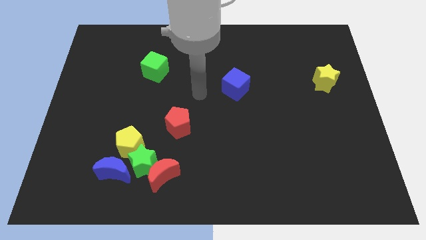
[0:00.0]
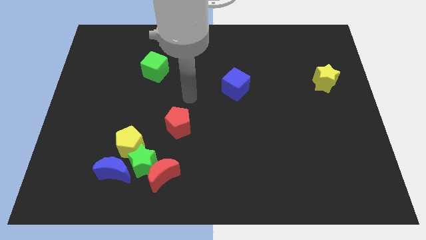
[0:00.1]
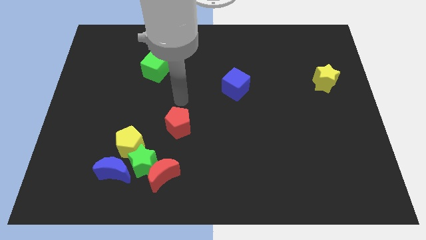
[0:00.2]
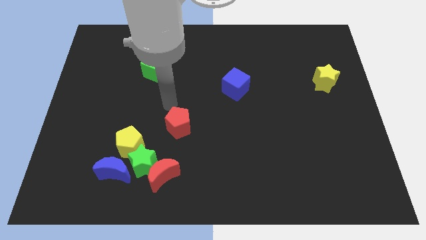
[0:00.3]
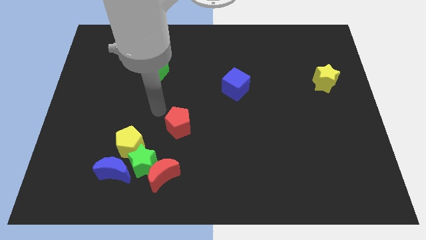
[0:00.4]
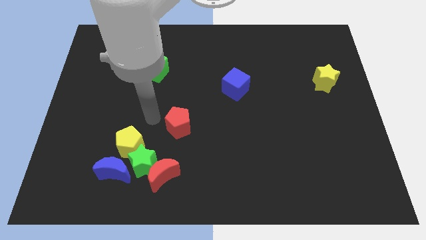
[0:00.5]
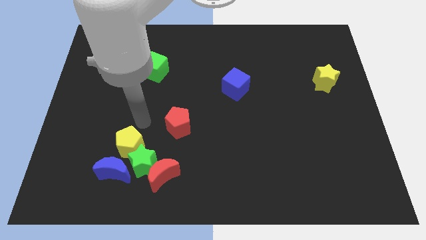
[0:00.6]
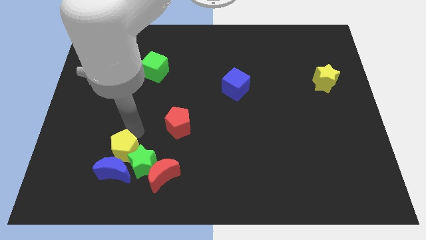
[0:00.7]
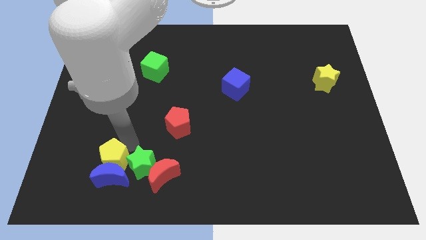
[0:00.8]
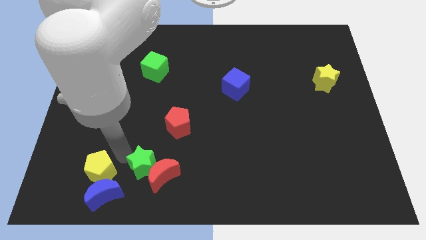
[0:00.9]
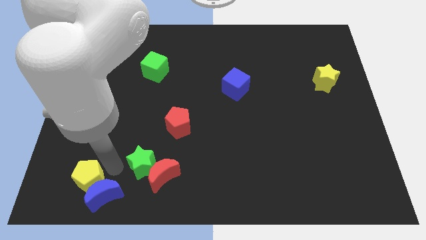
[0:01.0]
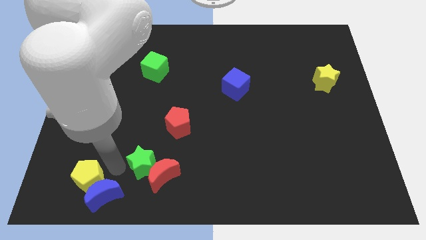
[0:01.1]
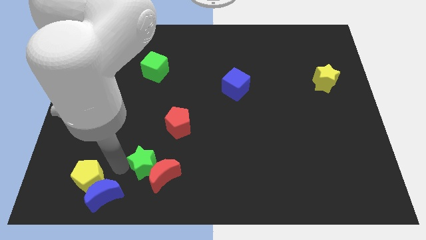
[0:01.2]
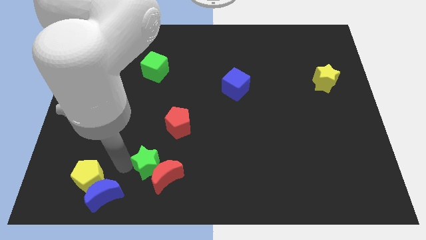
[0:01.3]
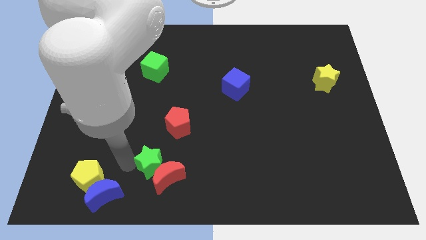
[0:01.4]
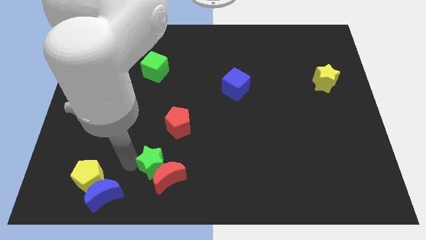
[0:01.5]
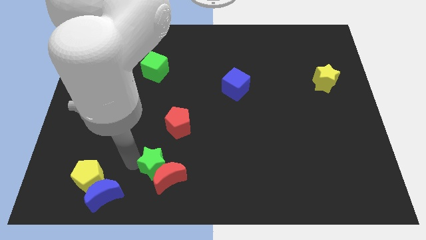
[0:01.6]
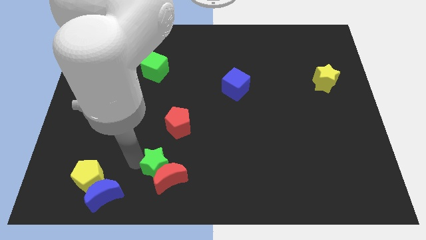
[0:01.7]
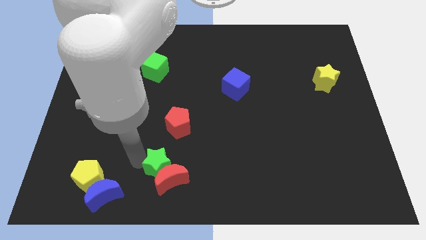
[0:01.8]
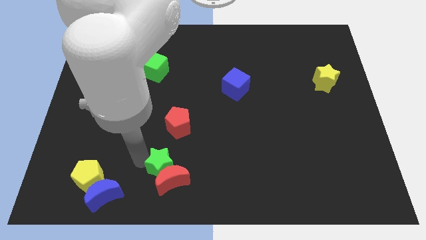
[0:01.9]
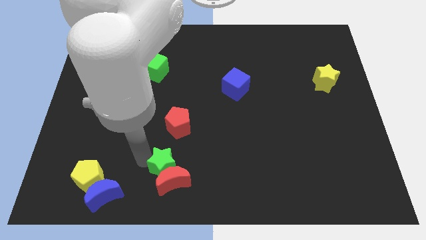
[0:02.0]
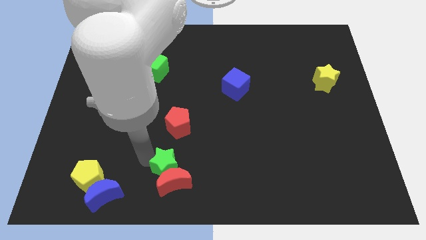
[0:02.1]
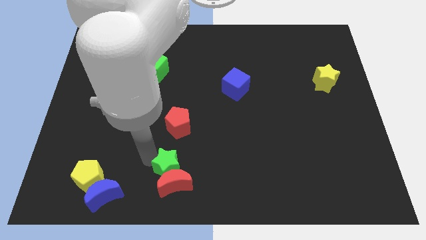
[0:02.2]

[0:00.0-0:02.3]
pull the green star apart from the group

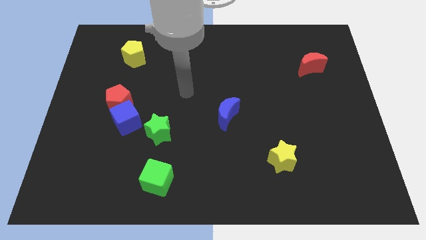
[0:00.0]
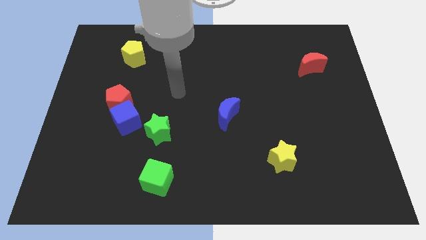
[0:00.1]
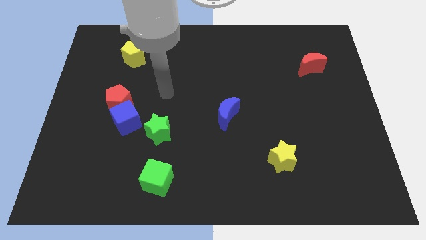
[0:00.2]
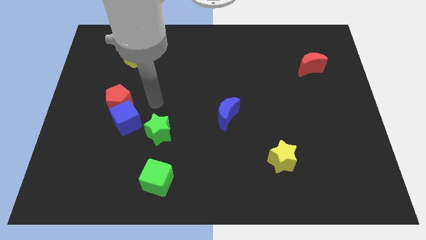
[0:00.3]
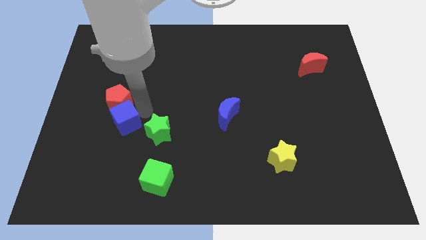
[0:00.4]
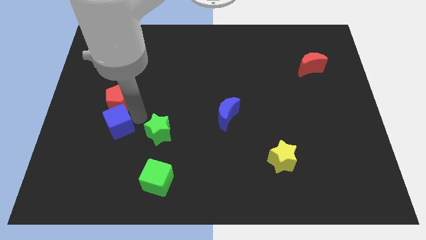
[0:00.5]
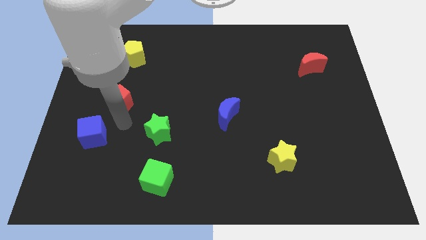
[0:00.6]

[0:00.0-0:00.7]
pull the red pentagon apart from the blue cube

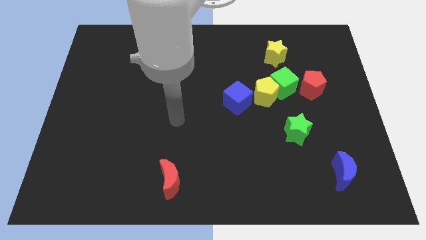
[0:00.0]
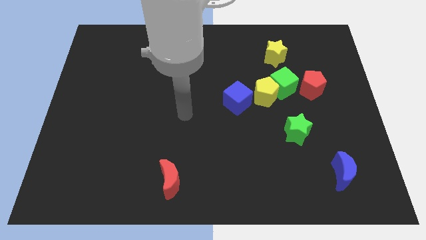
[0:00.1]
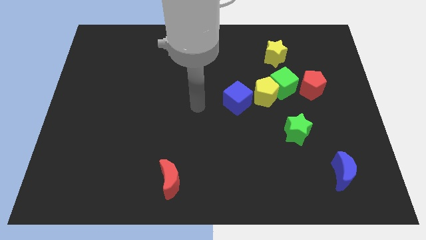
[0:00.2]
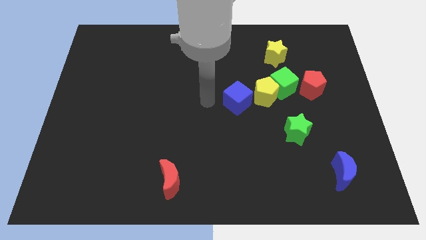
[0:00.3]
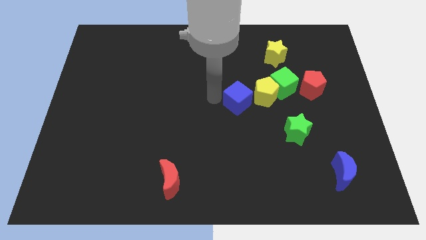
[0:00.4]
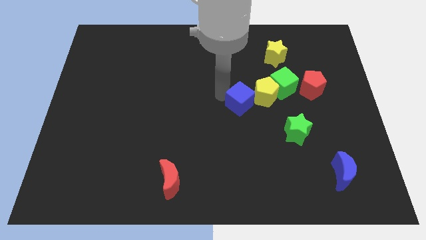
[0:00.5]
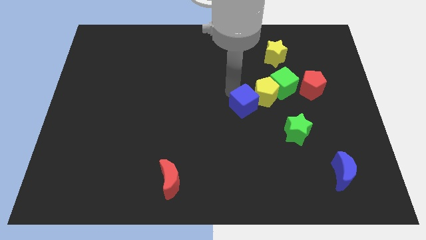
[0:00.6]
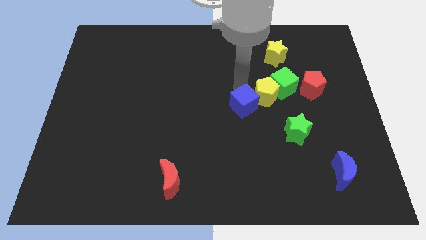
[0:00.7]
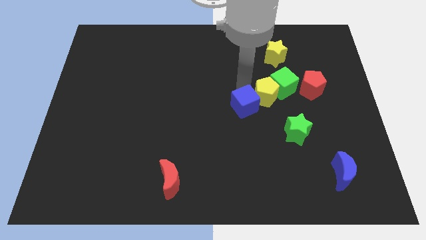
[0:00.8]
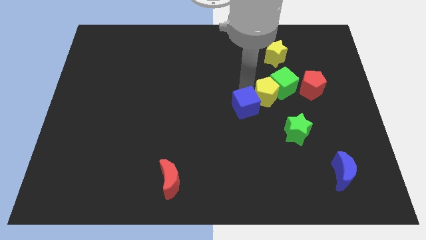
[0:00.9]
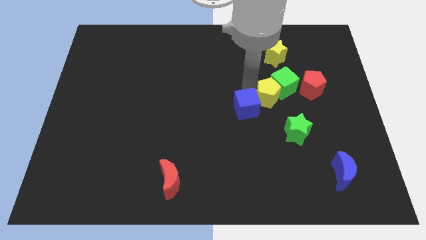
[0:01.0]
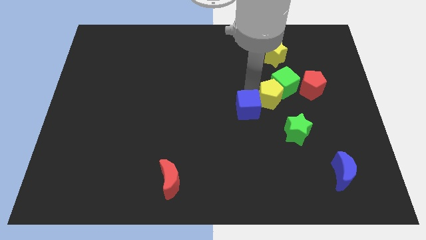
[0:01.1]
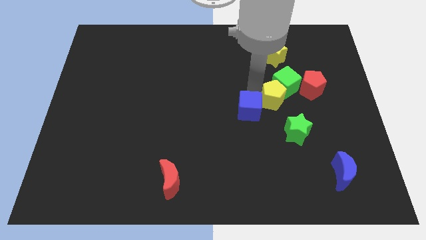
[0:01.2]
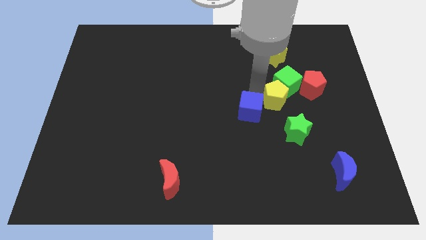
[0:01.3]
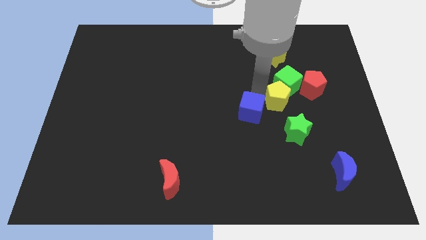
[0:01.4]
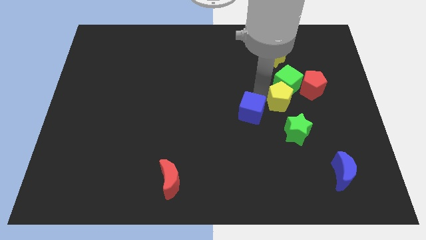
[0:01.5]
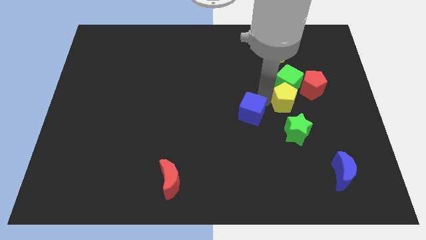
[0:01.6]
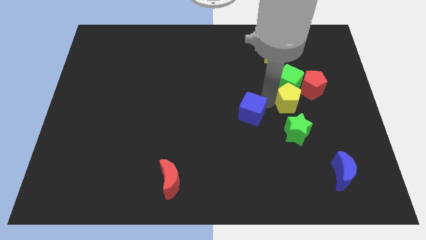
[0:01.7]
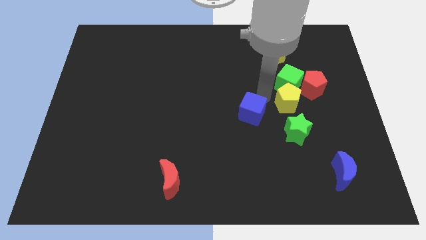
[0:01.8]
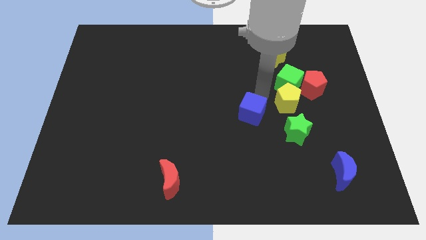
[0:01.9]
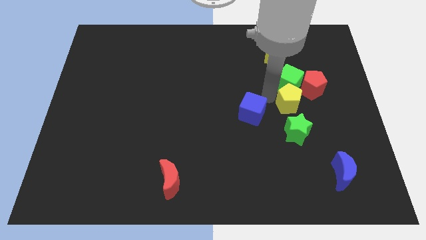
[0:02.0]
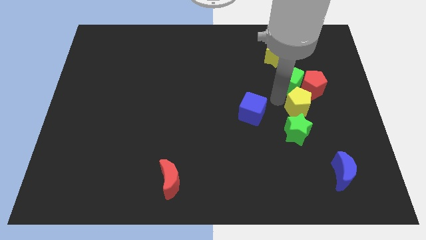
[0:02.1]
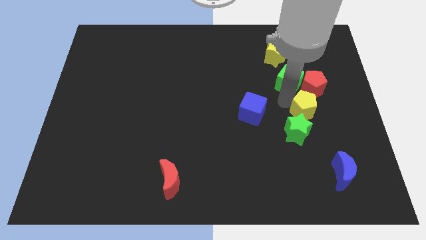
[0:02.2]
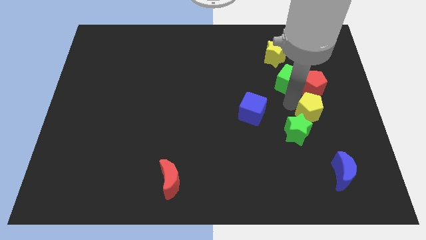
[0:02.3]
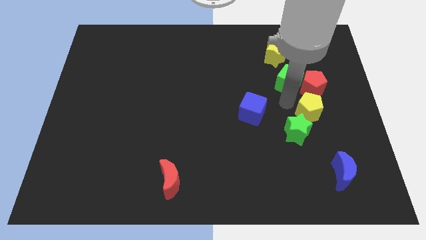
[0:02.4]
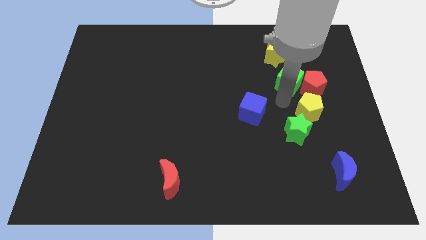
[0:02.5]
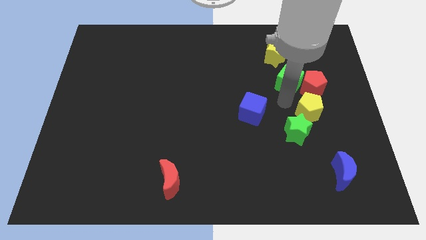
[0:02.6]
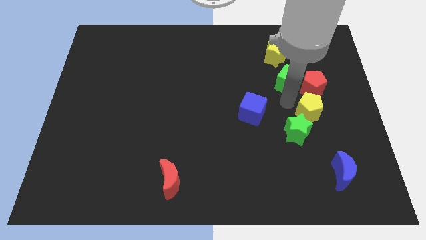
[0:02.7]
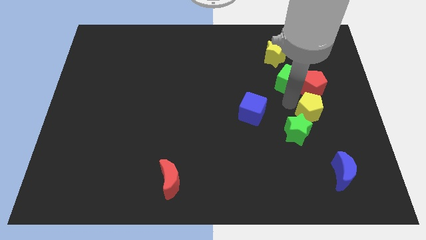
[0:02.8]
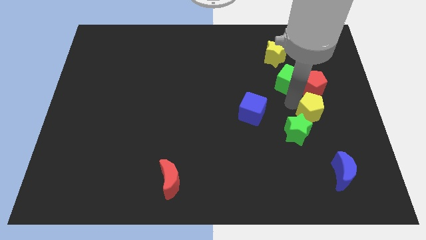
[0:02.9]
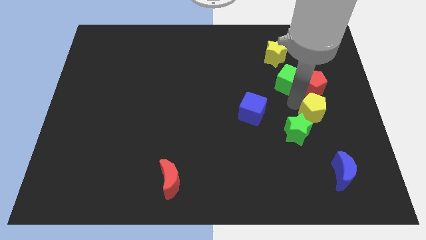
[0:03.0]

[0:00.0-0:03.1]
pull the yellow pentagon apart from the green cube and blue cube

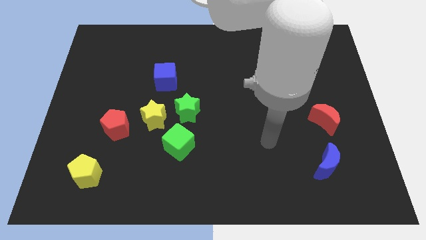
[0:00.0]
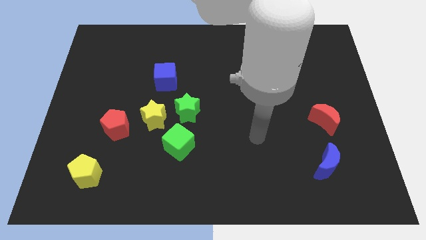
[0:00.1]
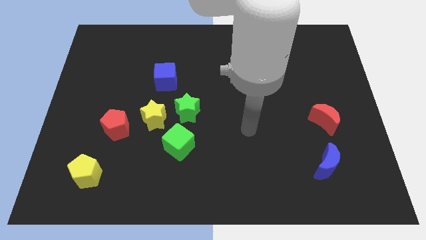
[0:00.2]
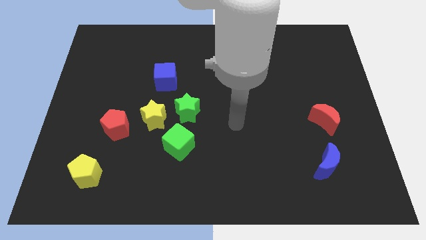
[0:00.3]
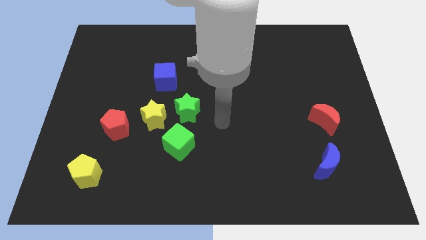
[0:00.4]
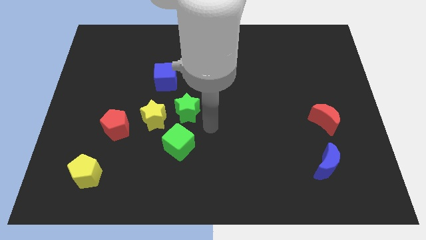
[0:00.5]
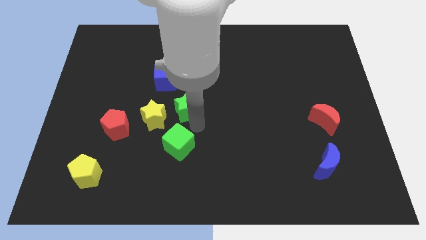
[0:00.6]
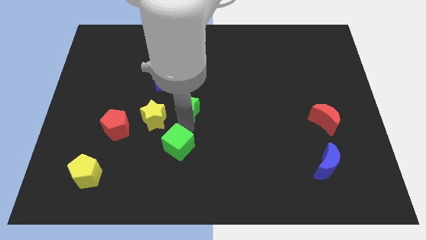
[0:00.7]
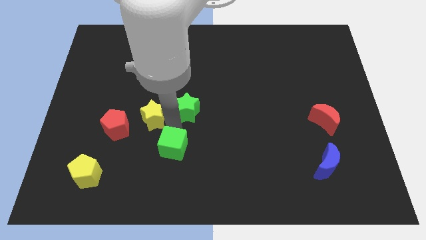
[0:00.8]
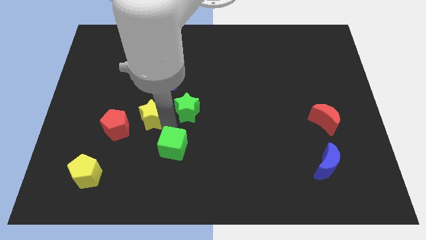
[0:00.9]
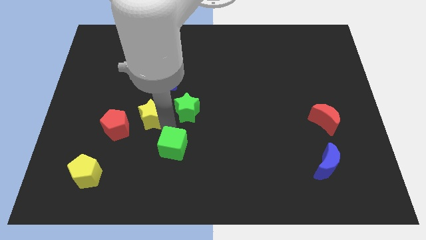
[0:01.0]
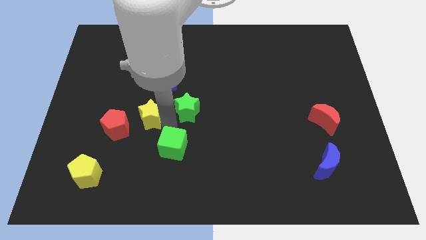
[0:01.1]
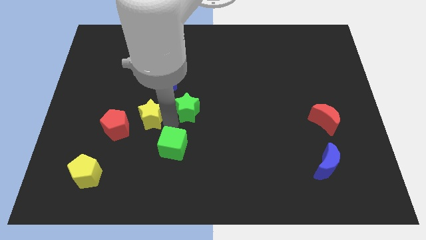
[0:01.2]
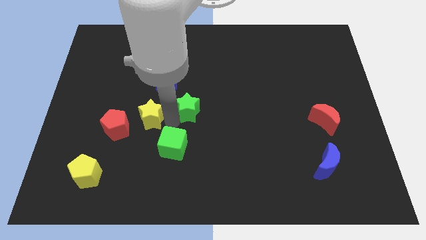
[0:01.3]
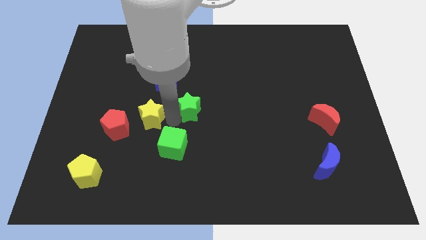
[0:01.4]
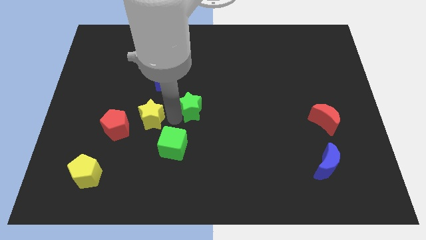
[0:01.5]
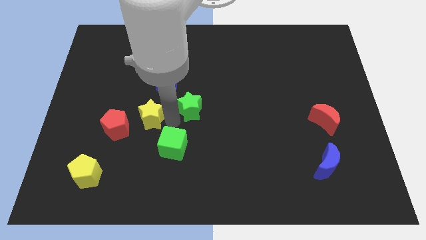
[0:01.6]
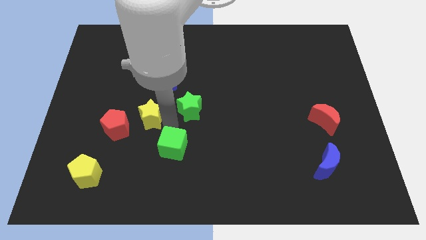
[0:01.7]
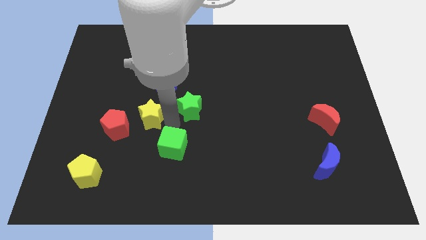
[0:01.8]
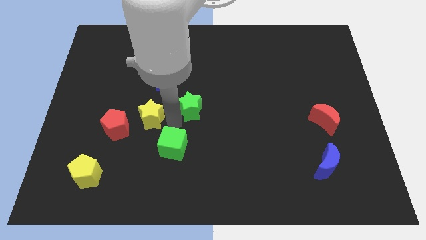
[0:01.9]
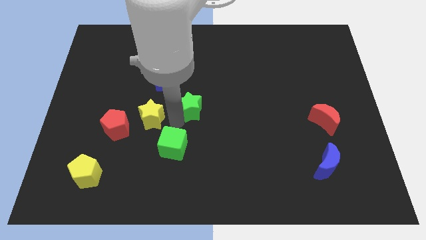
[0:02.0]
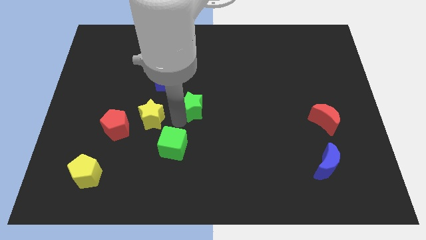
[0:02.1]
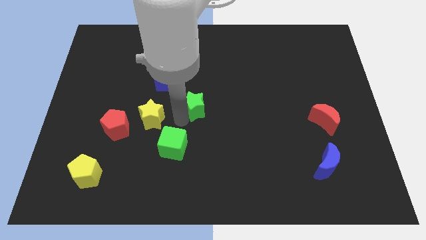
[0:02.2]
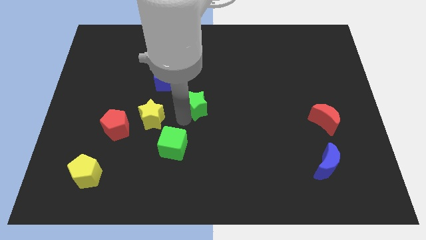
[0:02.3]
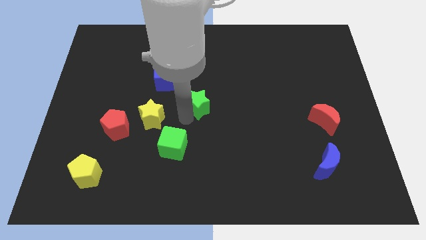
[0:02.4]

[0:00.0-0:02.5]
separate the green star from the yellow star and green cube

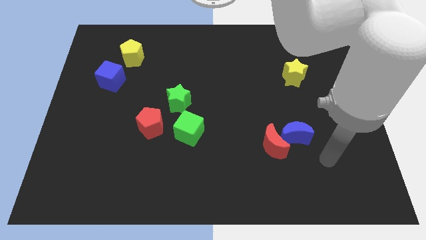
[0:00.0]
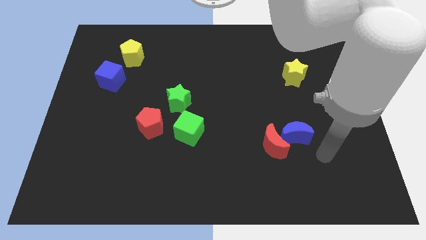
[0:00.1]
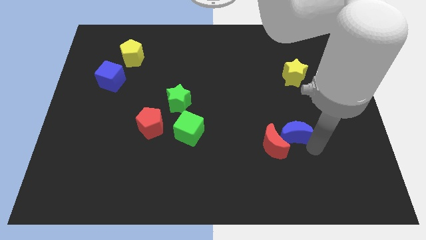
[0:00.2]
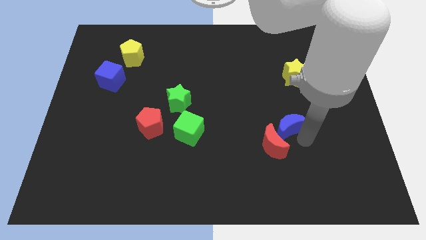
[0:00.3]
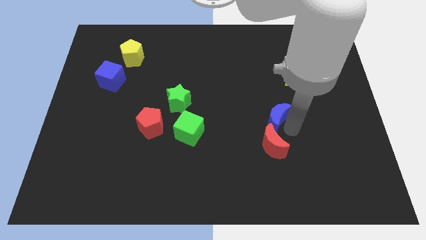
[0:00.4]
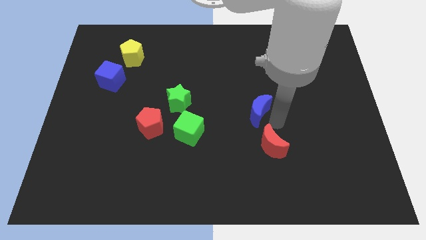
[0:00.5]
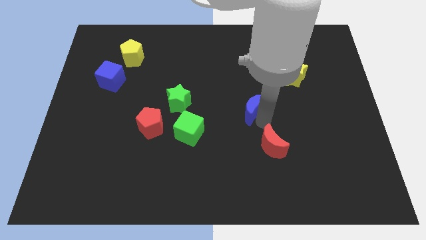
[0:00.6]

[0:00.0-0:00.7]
separate the red moon from the blue moon

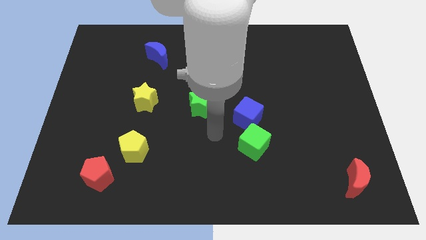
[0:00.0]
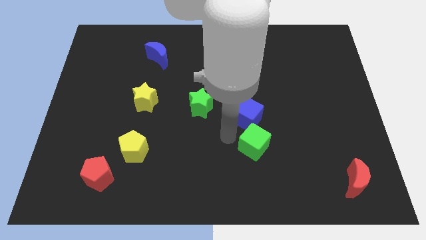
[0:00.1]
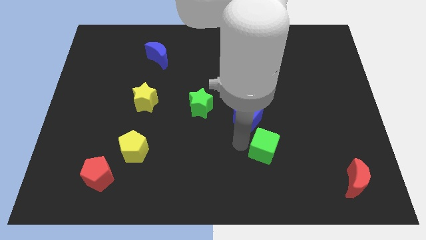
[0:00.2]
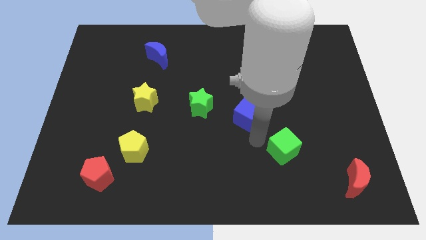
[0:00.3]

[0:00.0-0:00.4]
pull the blue cube apart from the green cube
